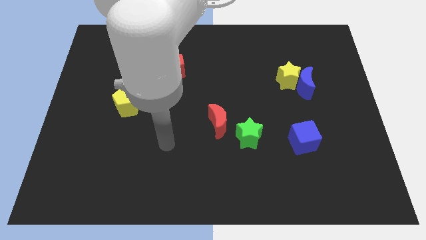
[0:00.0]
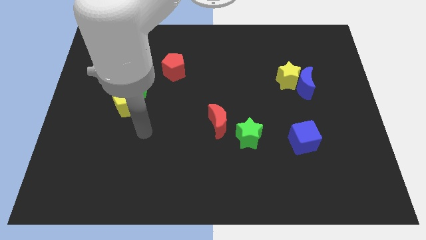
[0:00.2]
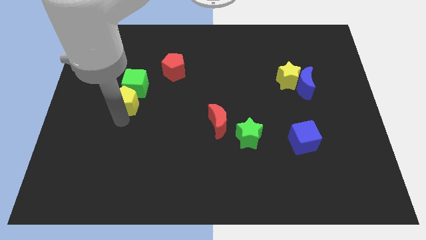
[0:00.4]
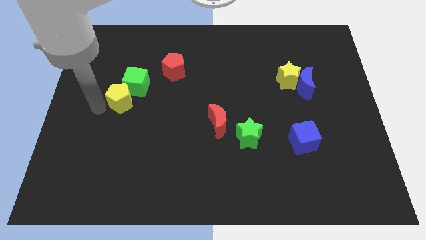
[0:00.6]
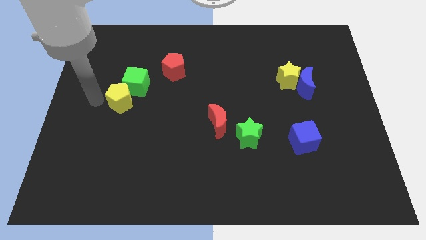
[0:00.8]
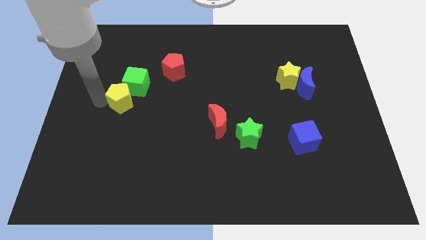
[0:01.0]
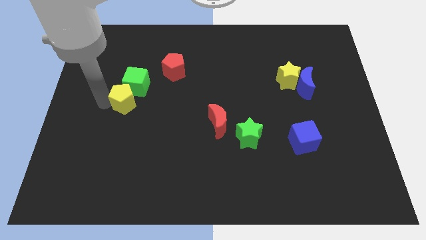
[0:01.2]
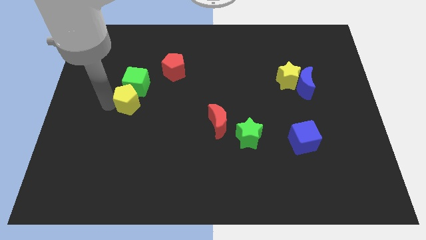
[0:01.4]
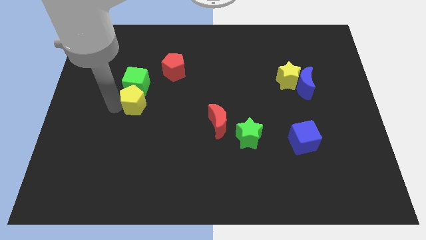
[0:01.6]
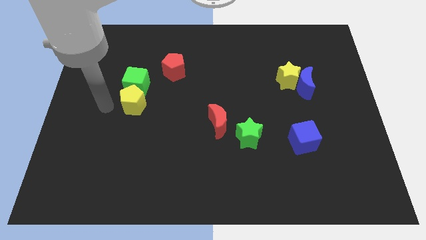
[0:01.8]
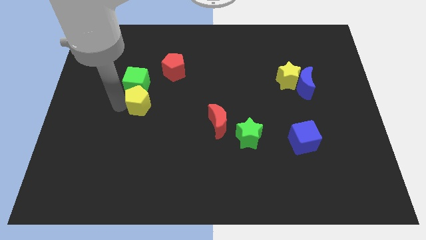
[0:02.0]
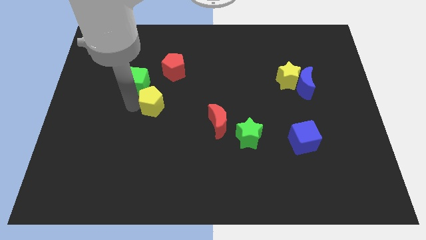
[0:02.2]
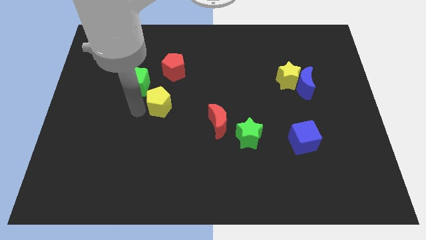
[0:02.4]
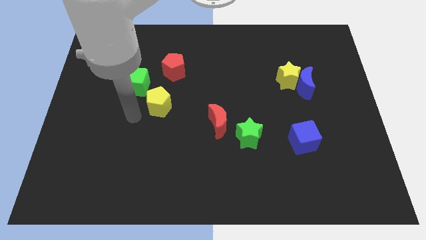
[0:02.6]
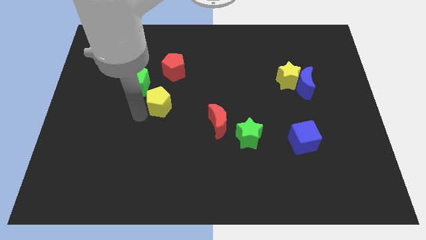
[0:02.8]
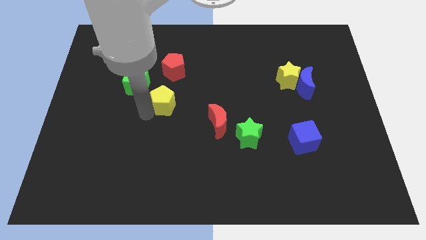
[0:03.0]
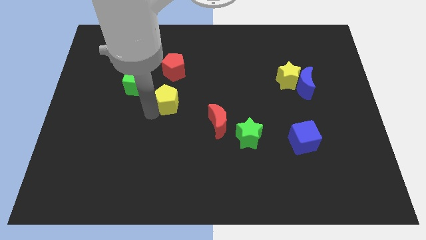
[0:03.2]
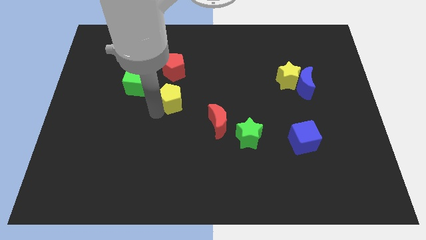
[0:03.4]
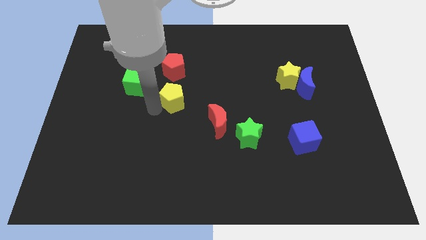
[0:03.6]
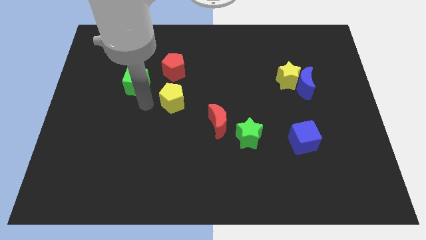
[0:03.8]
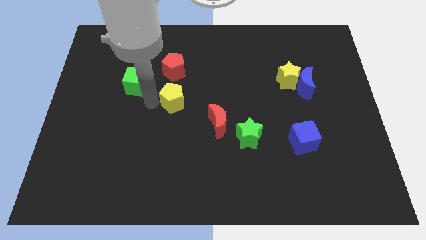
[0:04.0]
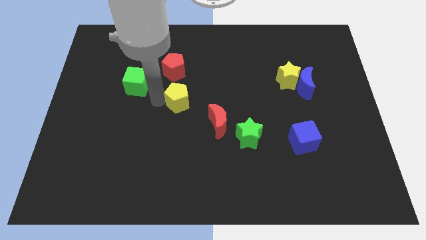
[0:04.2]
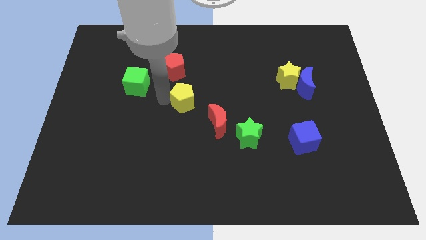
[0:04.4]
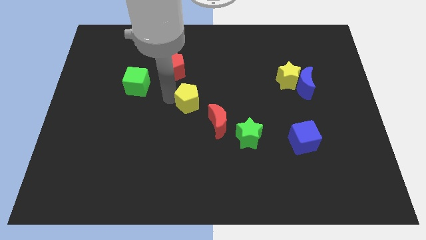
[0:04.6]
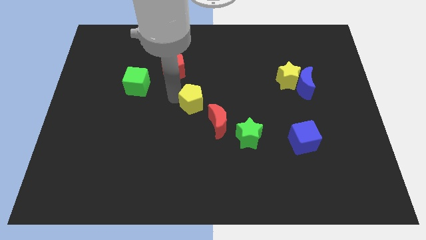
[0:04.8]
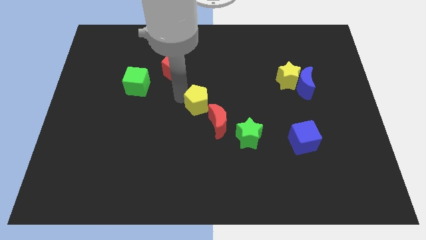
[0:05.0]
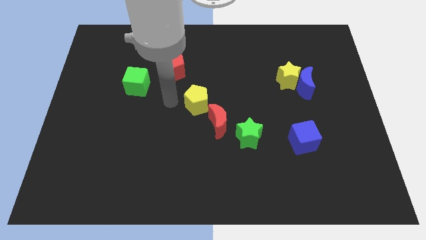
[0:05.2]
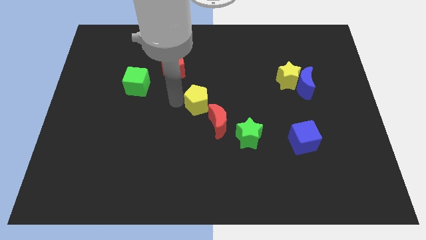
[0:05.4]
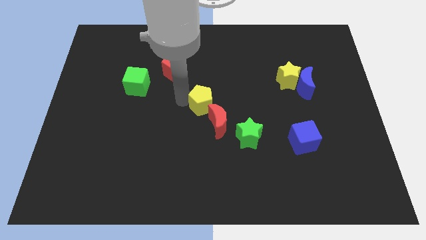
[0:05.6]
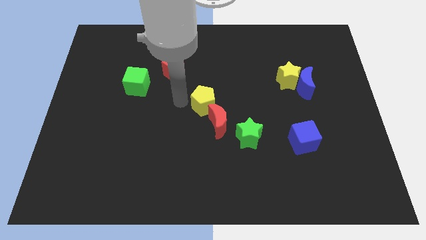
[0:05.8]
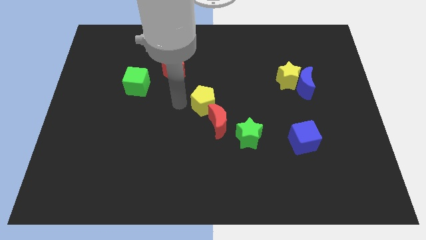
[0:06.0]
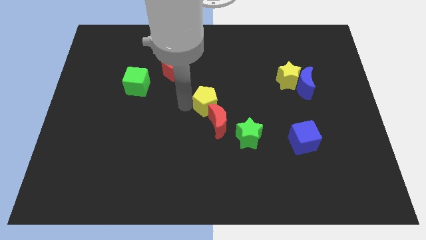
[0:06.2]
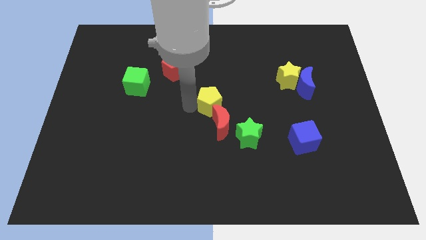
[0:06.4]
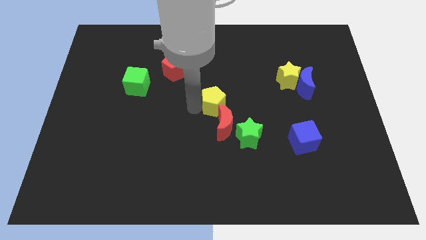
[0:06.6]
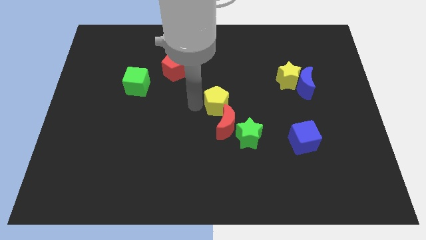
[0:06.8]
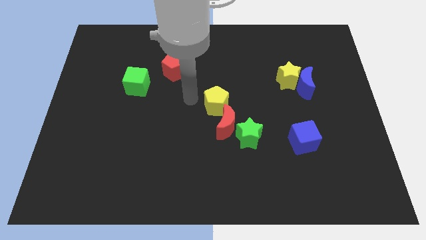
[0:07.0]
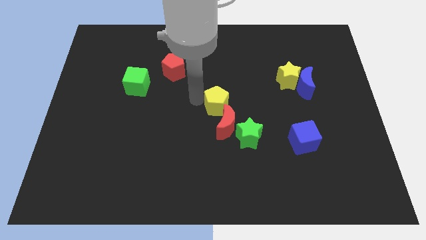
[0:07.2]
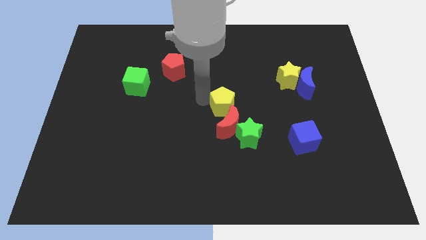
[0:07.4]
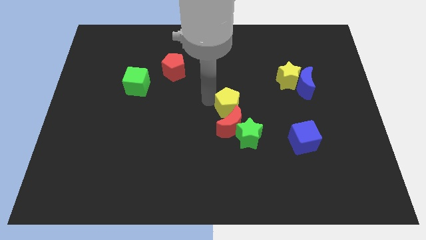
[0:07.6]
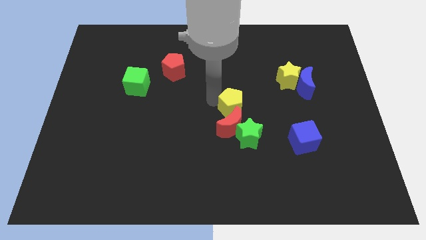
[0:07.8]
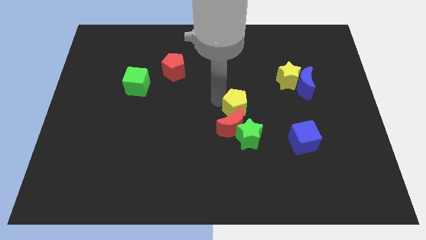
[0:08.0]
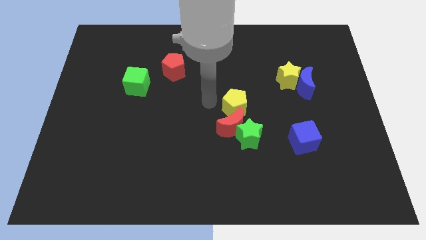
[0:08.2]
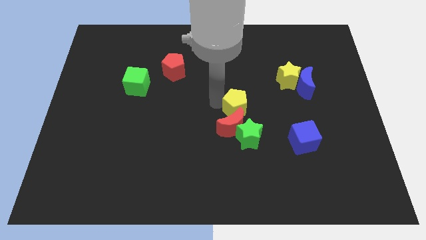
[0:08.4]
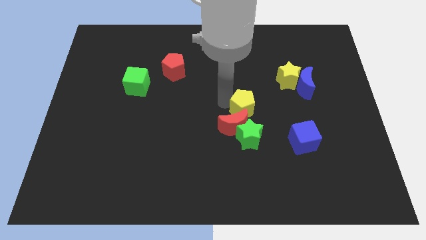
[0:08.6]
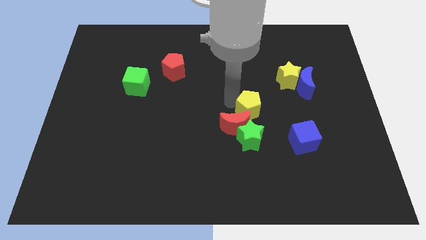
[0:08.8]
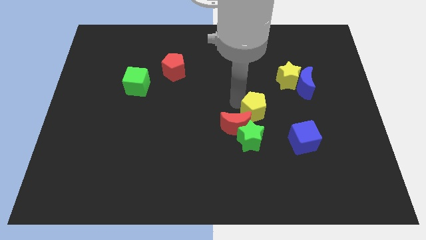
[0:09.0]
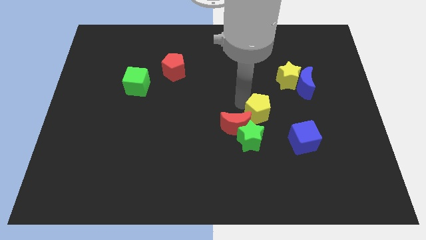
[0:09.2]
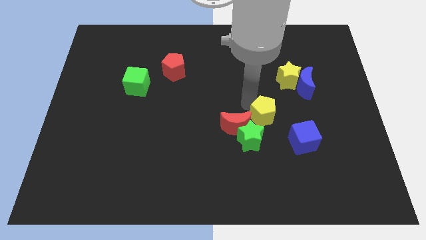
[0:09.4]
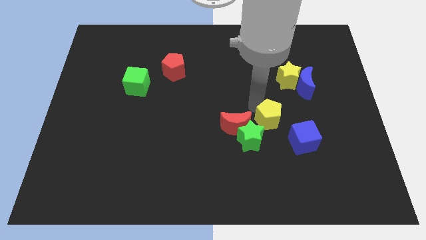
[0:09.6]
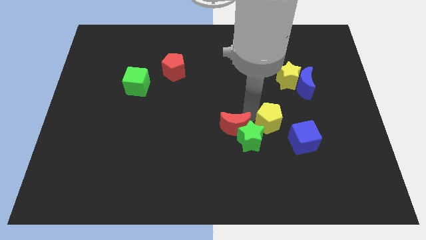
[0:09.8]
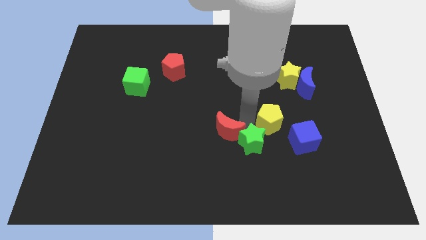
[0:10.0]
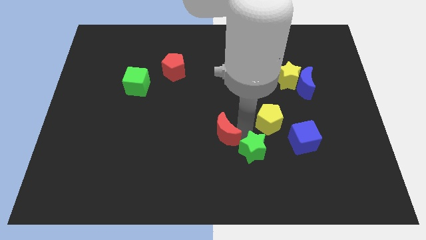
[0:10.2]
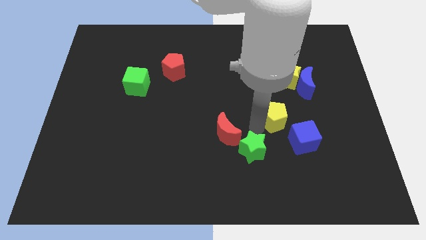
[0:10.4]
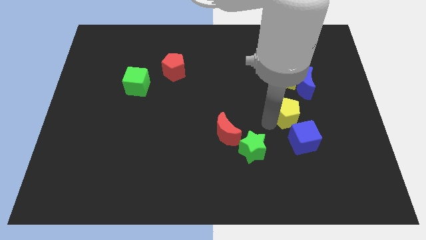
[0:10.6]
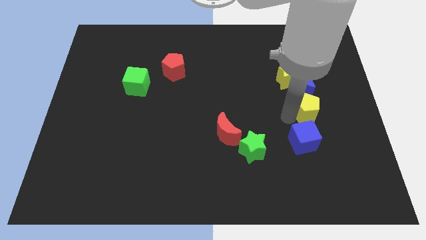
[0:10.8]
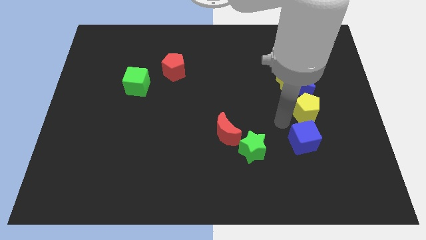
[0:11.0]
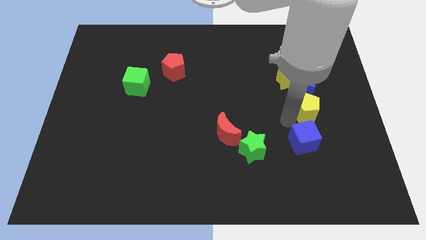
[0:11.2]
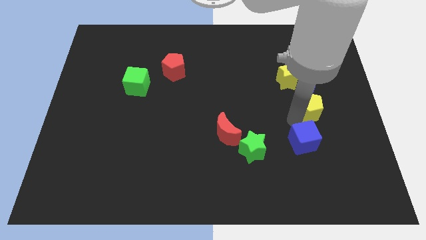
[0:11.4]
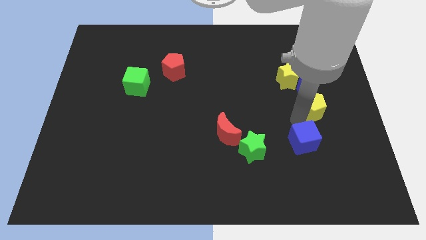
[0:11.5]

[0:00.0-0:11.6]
move the yellow pentagon to the bottom right side of the blue moon

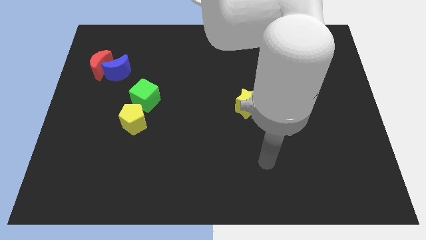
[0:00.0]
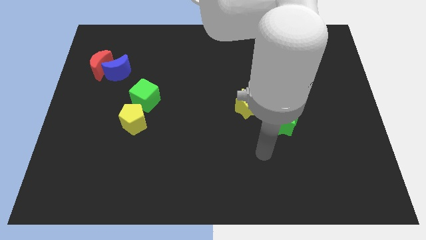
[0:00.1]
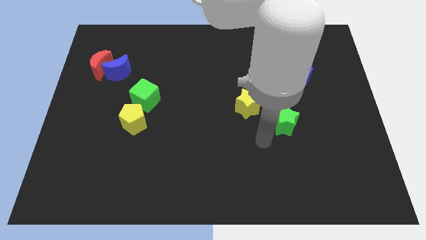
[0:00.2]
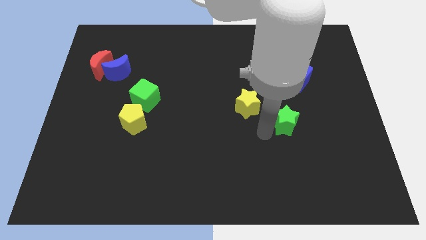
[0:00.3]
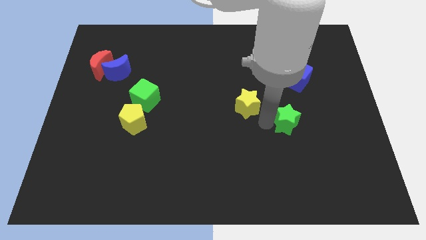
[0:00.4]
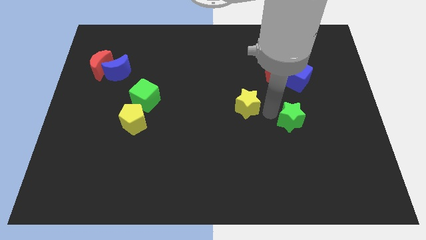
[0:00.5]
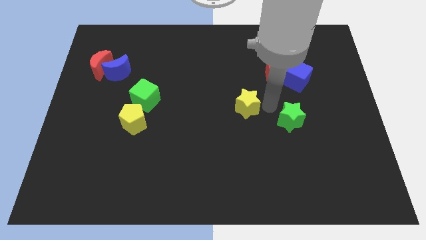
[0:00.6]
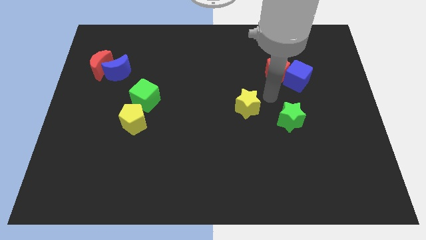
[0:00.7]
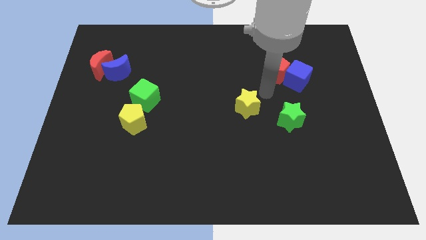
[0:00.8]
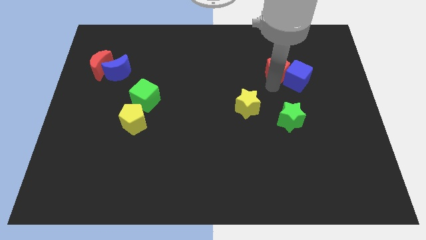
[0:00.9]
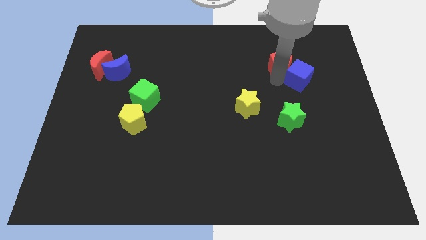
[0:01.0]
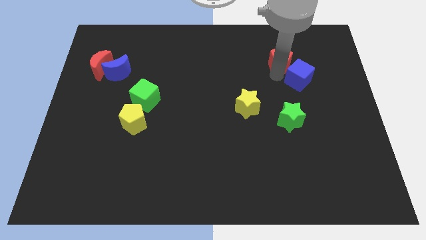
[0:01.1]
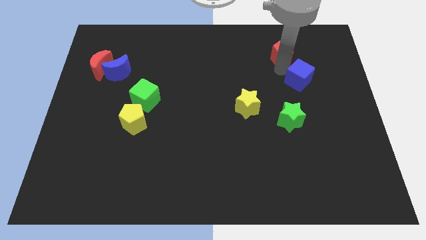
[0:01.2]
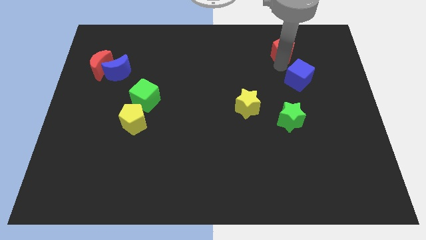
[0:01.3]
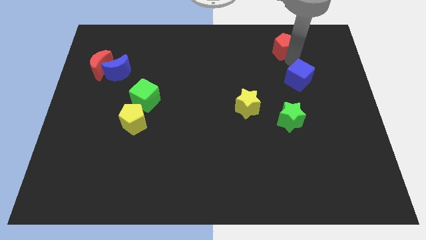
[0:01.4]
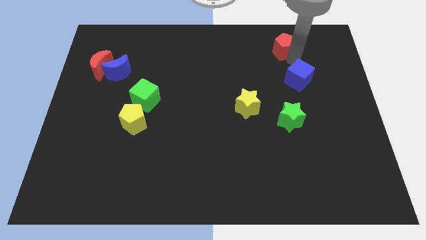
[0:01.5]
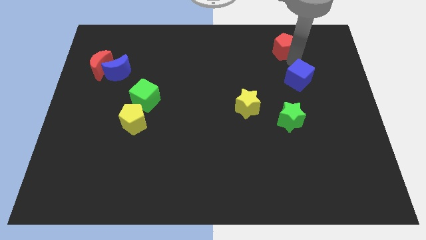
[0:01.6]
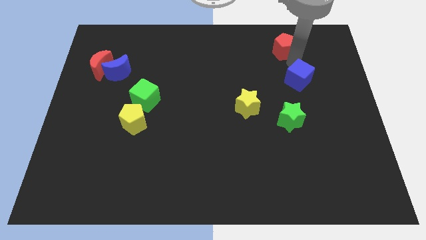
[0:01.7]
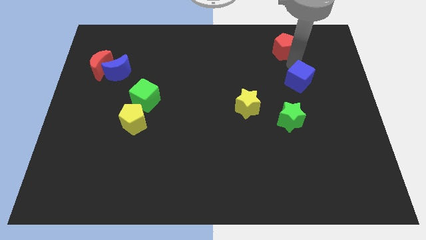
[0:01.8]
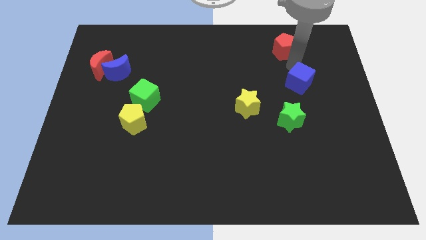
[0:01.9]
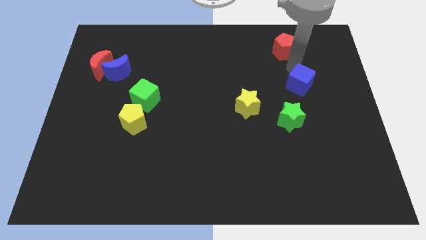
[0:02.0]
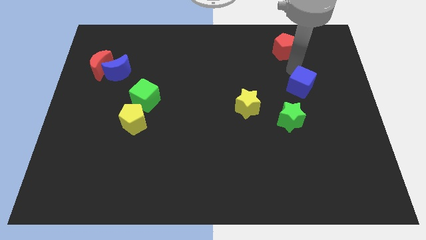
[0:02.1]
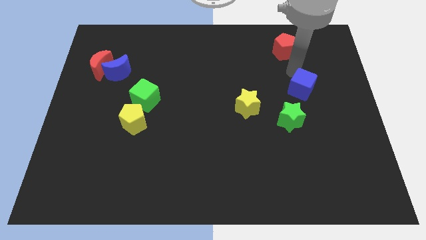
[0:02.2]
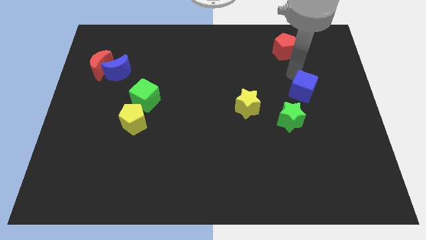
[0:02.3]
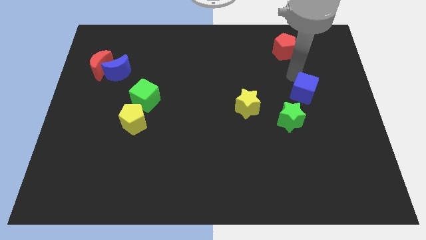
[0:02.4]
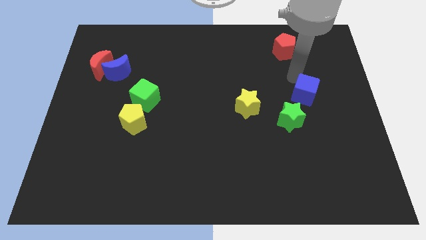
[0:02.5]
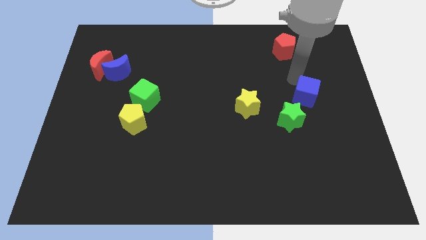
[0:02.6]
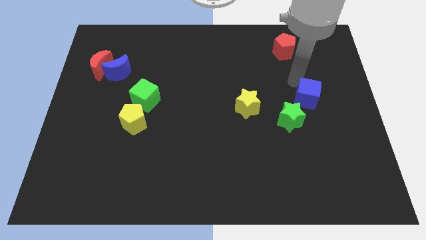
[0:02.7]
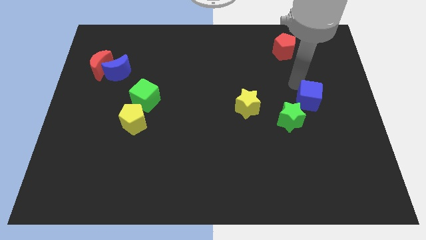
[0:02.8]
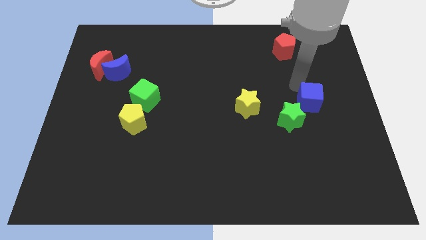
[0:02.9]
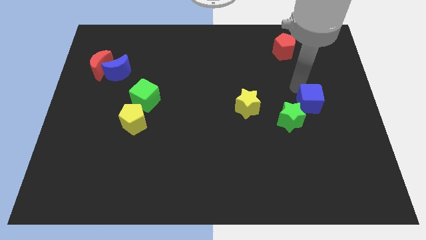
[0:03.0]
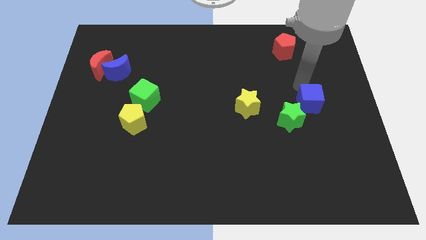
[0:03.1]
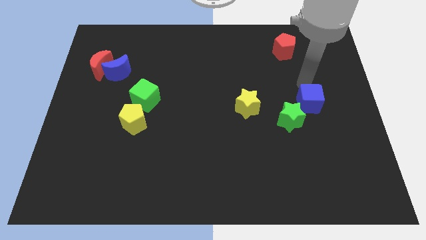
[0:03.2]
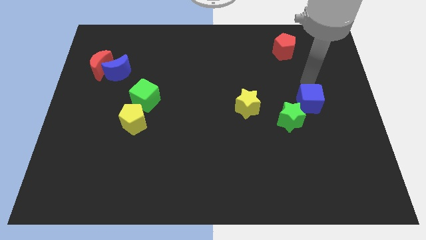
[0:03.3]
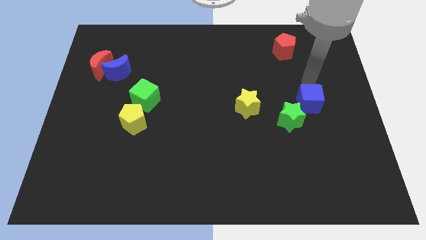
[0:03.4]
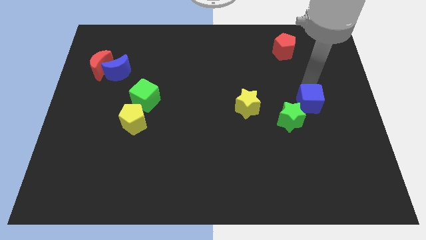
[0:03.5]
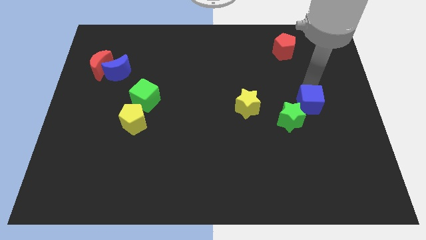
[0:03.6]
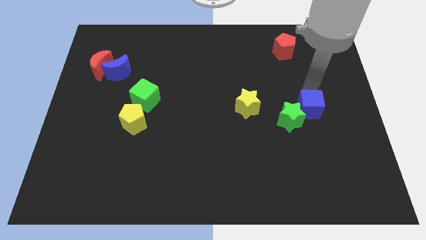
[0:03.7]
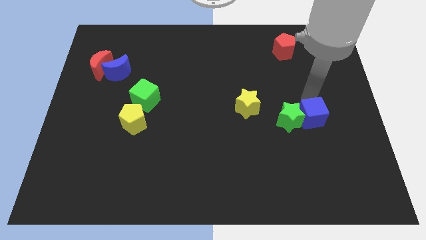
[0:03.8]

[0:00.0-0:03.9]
slide the blue cube diagonally down and to the right of the green star
